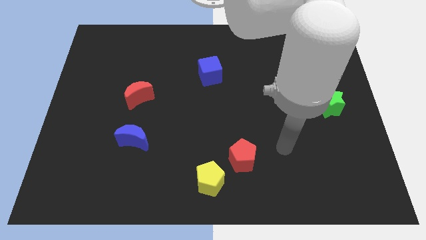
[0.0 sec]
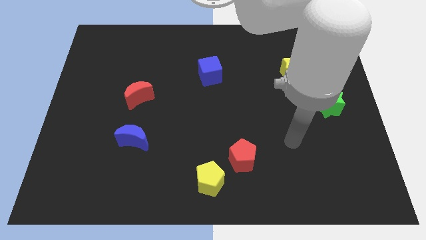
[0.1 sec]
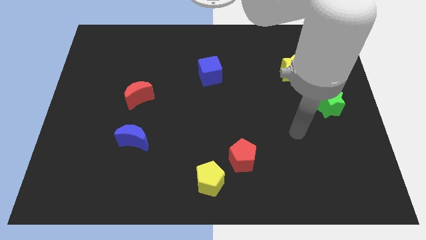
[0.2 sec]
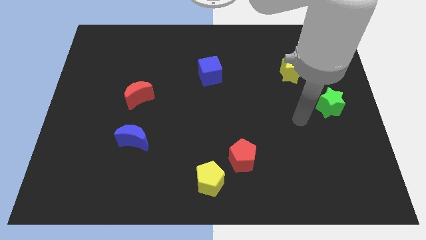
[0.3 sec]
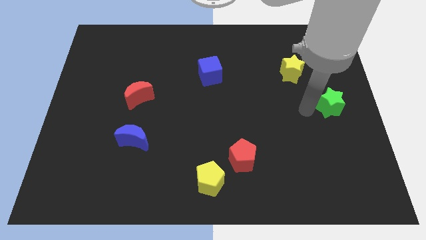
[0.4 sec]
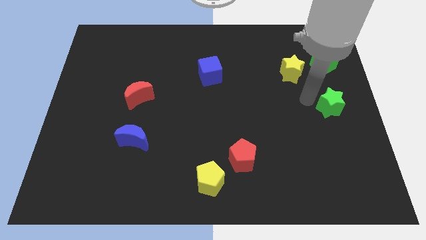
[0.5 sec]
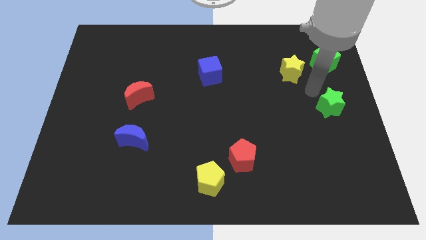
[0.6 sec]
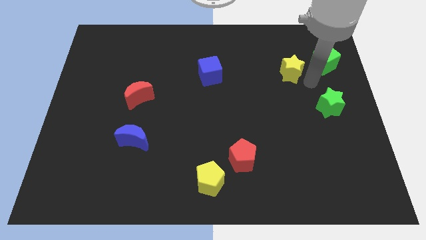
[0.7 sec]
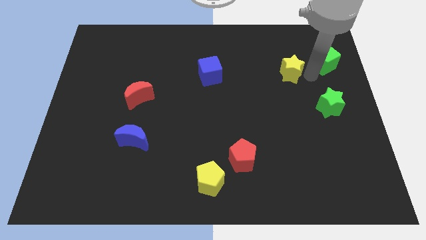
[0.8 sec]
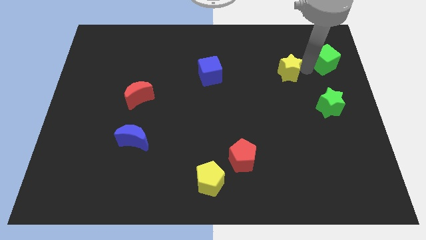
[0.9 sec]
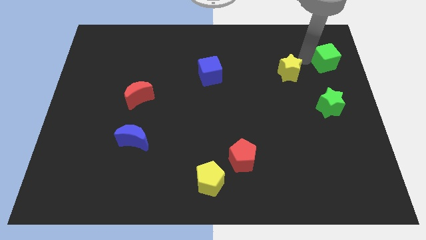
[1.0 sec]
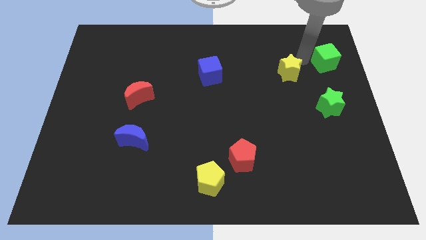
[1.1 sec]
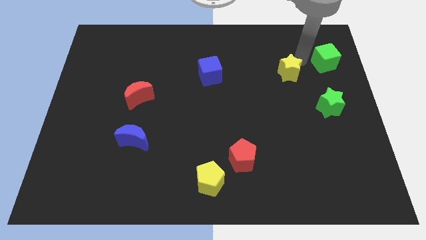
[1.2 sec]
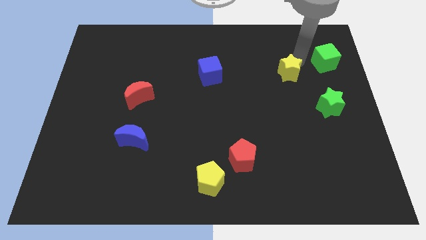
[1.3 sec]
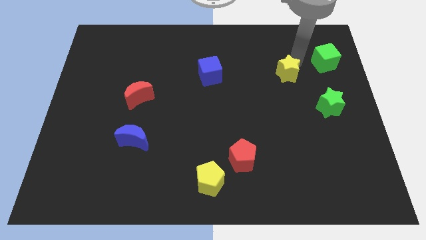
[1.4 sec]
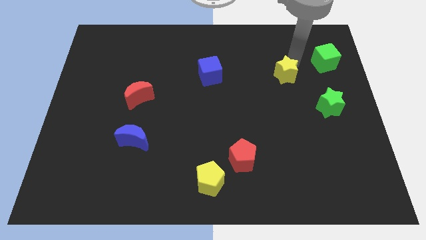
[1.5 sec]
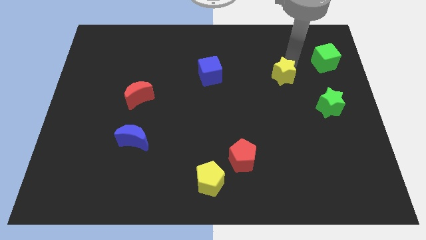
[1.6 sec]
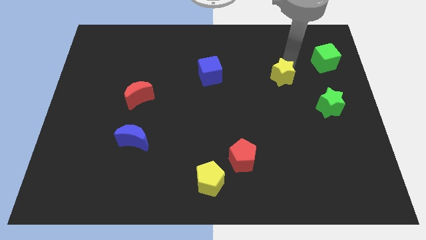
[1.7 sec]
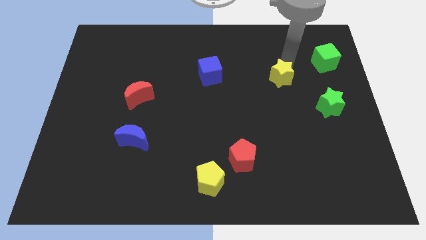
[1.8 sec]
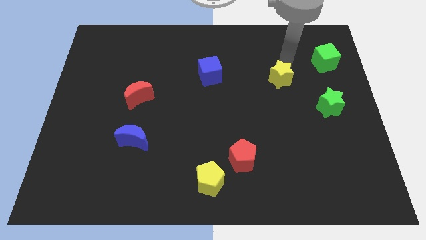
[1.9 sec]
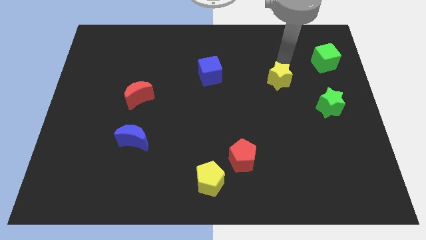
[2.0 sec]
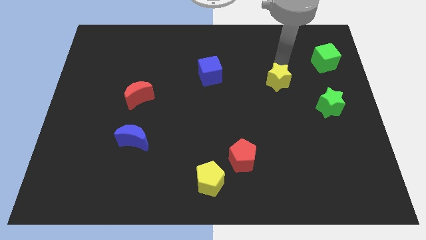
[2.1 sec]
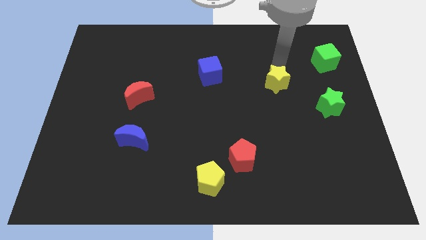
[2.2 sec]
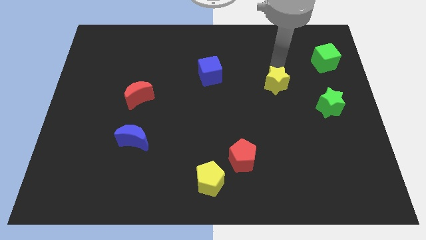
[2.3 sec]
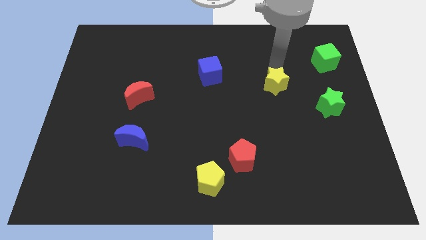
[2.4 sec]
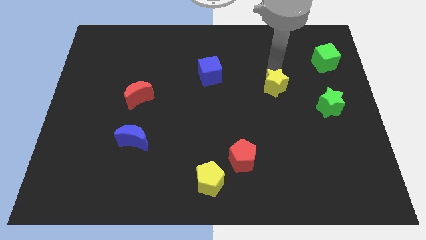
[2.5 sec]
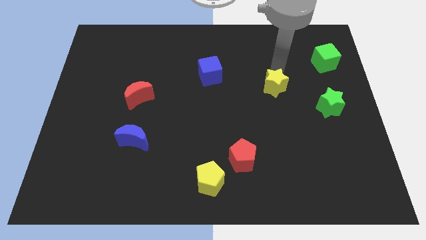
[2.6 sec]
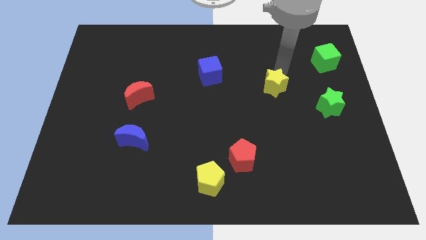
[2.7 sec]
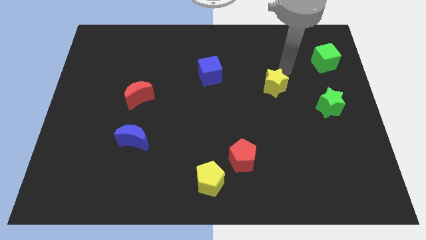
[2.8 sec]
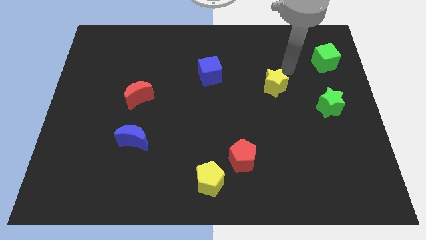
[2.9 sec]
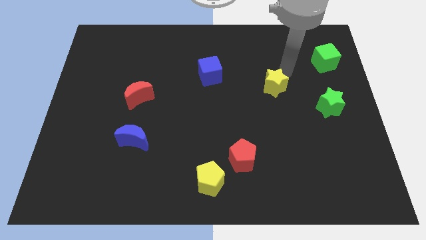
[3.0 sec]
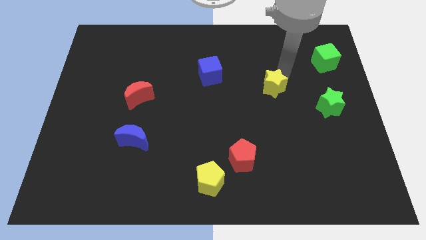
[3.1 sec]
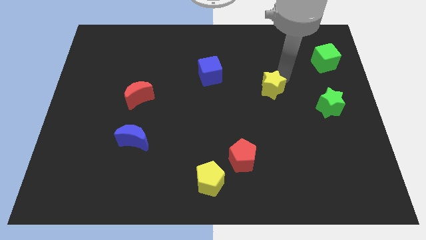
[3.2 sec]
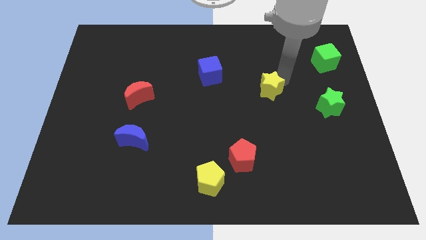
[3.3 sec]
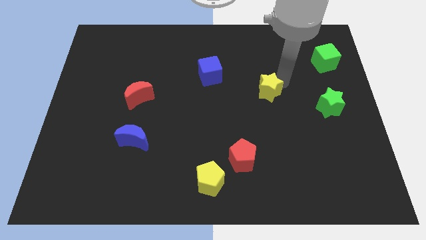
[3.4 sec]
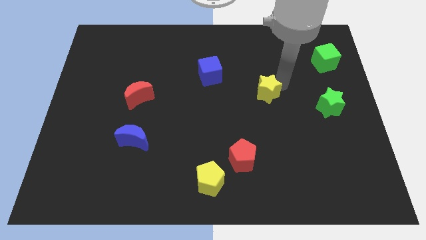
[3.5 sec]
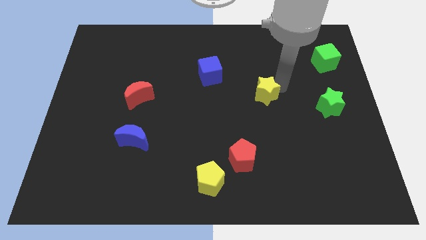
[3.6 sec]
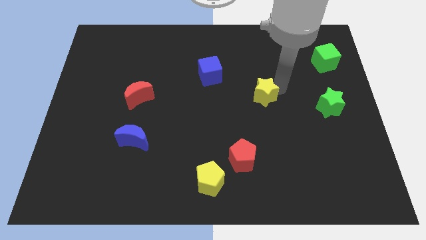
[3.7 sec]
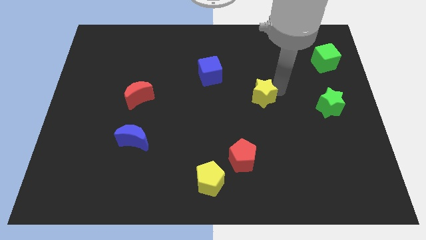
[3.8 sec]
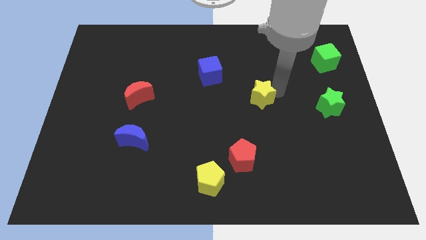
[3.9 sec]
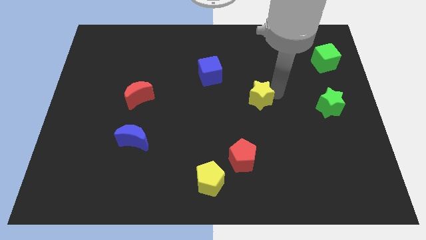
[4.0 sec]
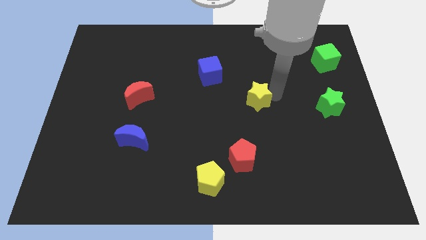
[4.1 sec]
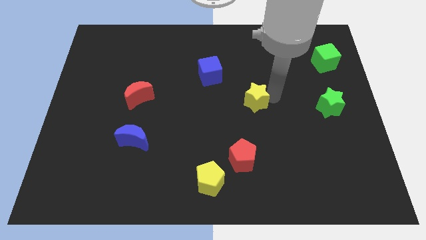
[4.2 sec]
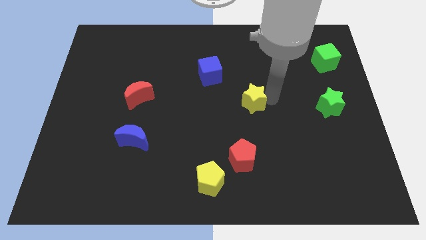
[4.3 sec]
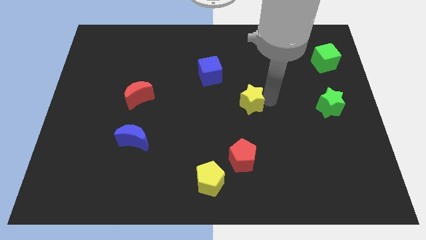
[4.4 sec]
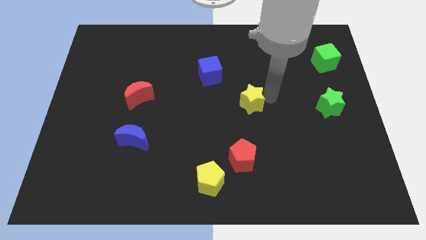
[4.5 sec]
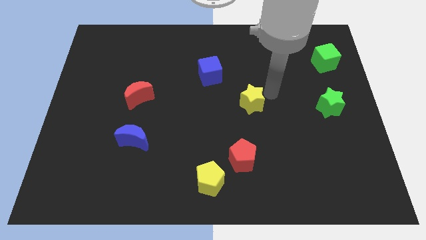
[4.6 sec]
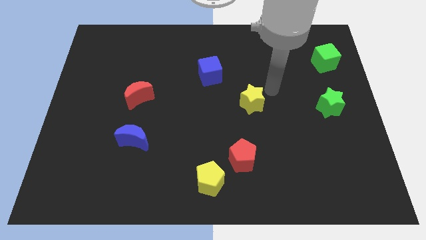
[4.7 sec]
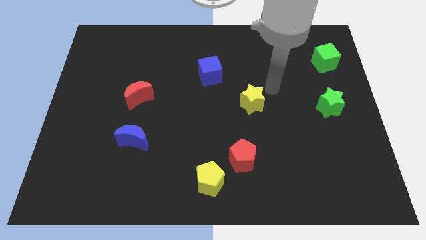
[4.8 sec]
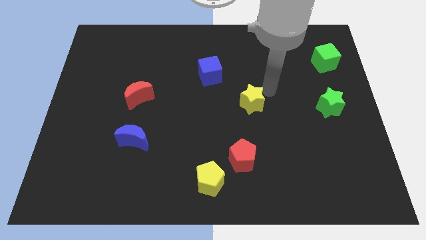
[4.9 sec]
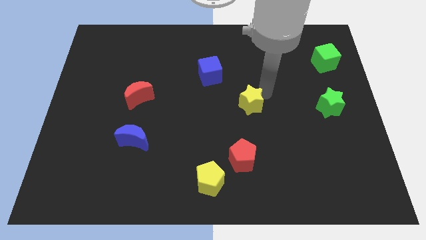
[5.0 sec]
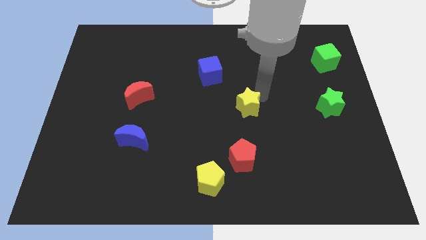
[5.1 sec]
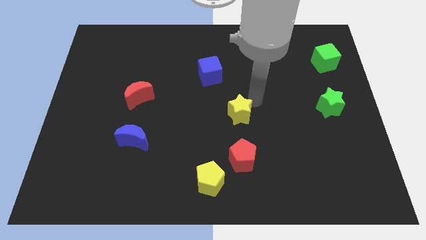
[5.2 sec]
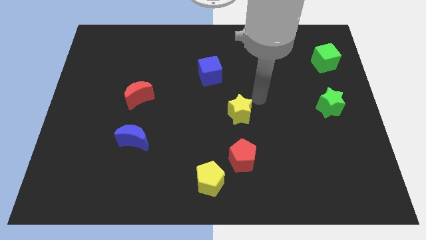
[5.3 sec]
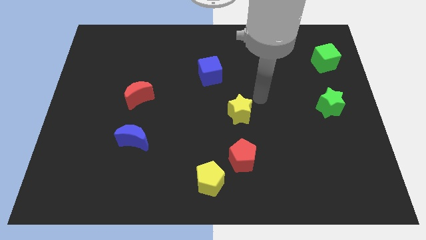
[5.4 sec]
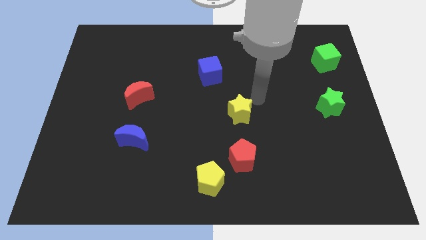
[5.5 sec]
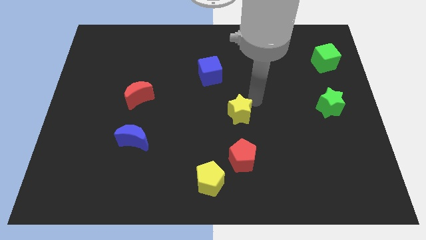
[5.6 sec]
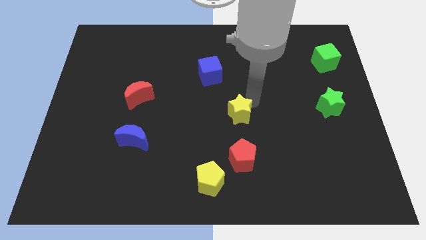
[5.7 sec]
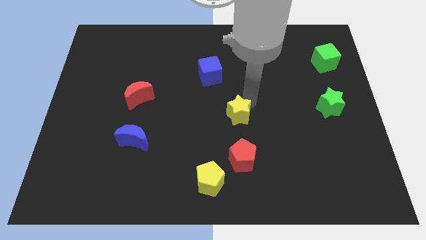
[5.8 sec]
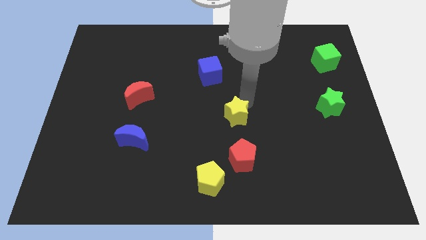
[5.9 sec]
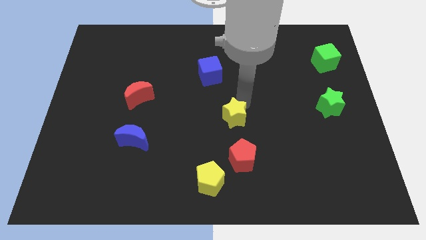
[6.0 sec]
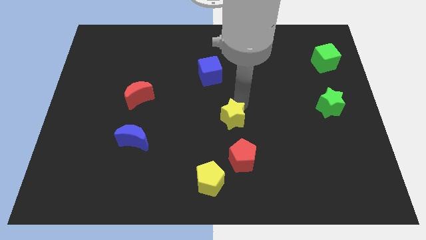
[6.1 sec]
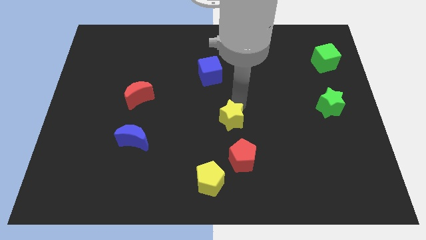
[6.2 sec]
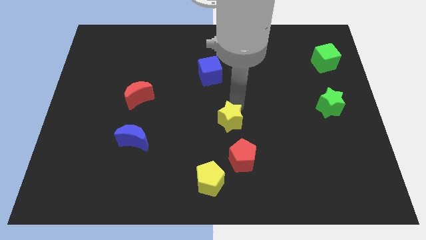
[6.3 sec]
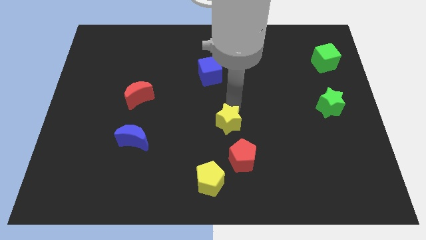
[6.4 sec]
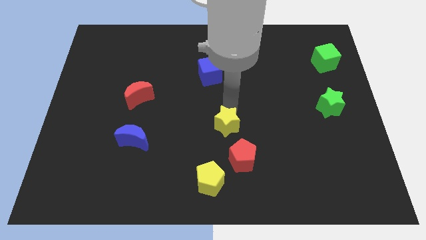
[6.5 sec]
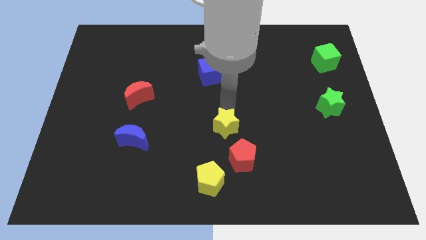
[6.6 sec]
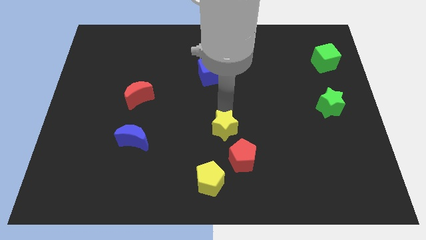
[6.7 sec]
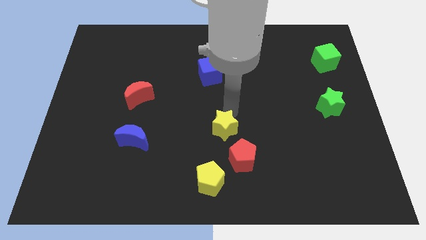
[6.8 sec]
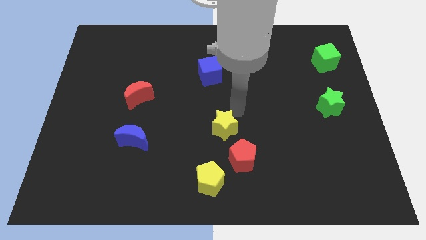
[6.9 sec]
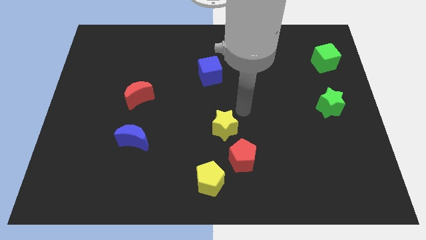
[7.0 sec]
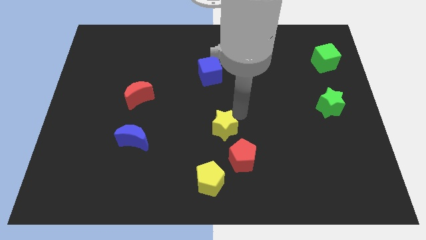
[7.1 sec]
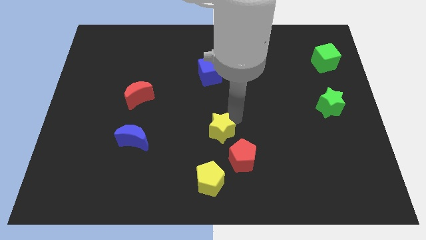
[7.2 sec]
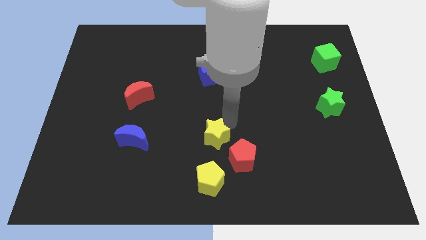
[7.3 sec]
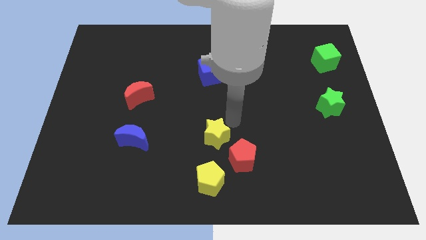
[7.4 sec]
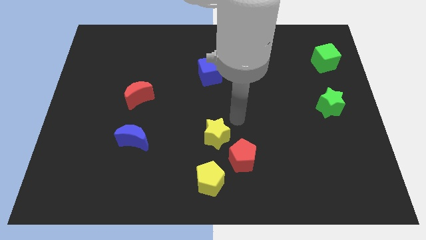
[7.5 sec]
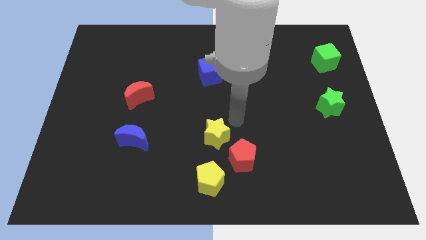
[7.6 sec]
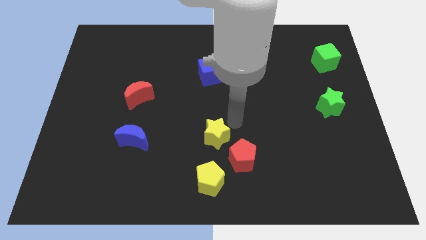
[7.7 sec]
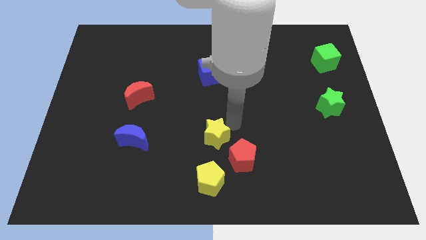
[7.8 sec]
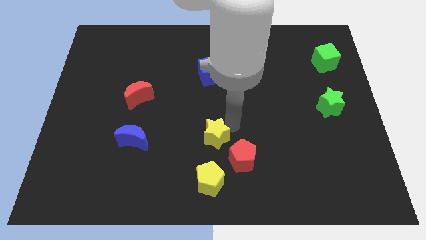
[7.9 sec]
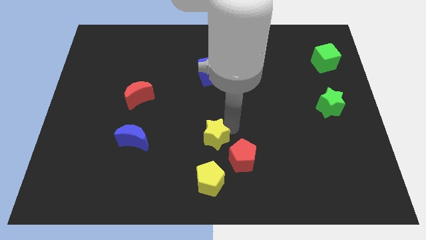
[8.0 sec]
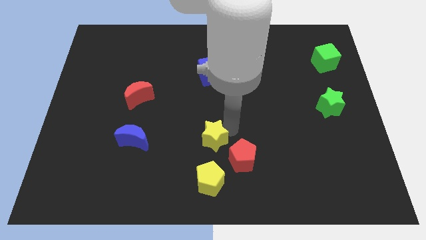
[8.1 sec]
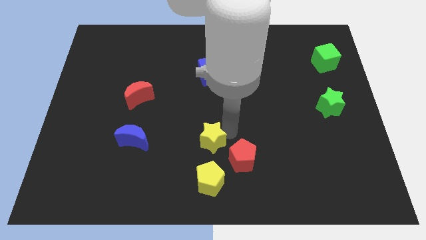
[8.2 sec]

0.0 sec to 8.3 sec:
push the yellow star to the left side of the red pentagon
